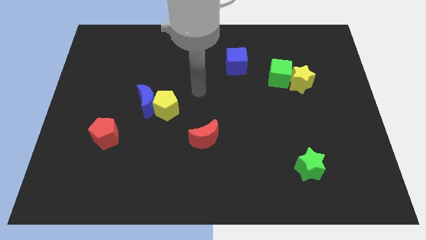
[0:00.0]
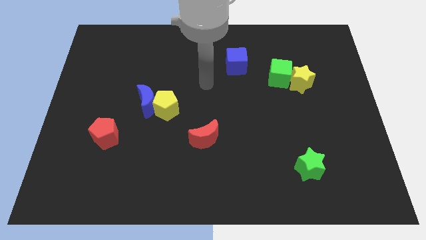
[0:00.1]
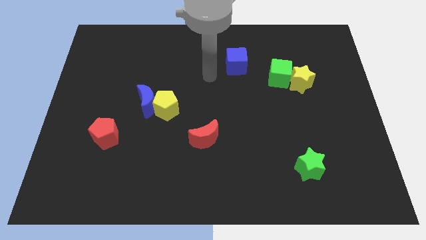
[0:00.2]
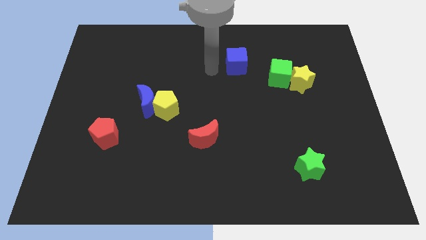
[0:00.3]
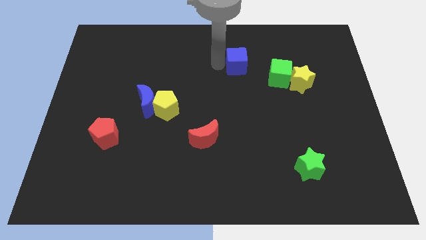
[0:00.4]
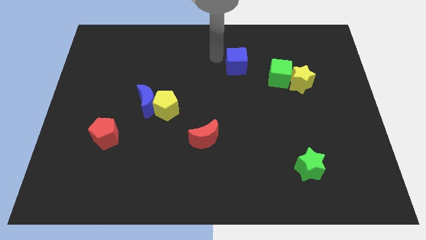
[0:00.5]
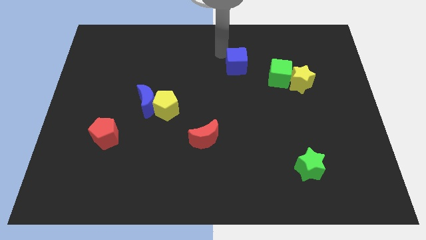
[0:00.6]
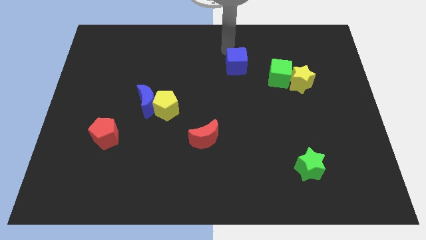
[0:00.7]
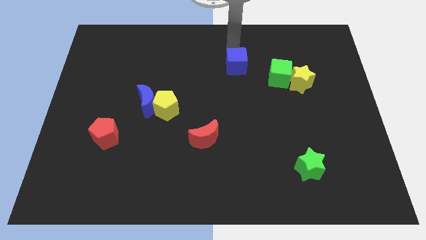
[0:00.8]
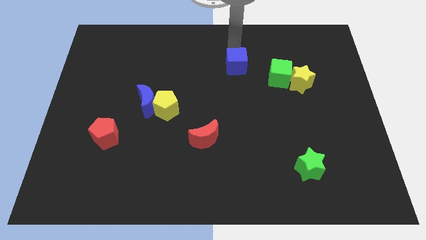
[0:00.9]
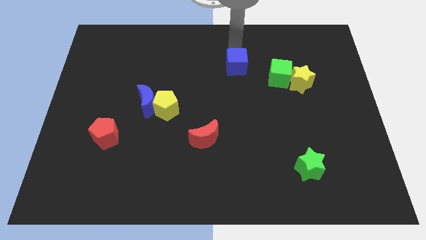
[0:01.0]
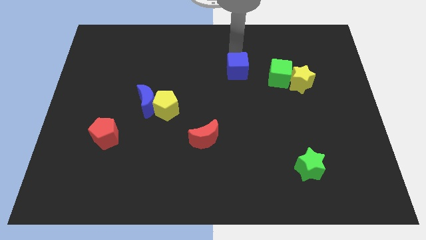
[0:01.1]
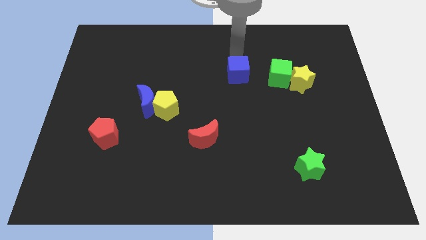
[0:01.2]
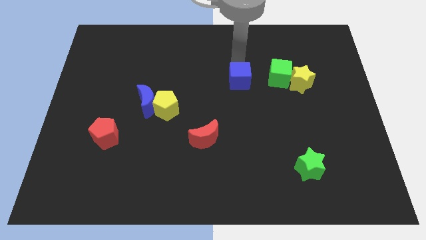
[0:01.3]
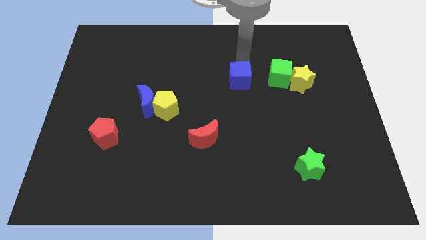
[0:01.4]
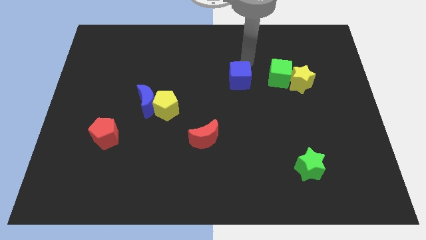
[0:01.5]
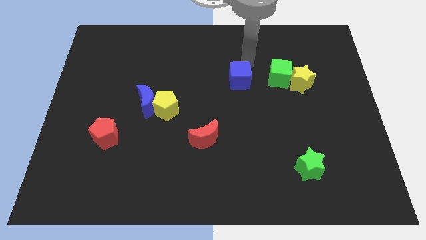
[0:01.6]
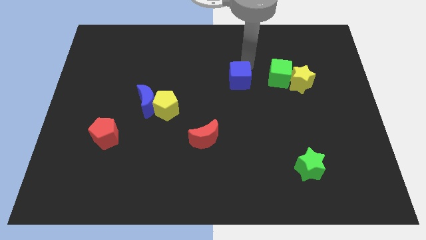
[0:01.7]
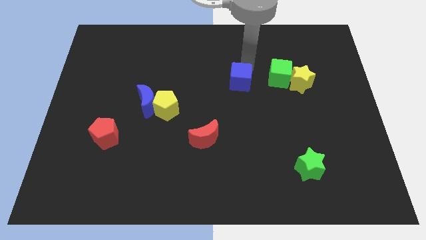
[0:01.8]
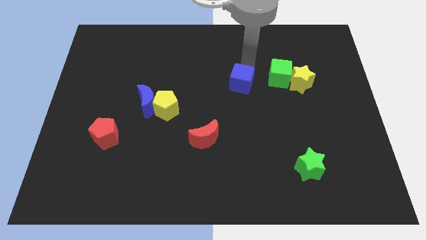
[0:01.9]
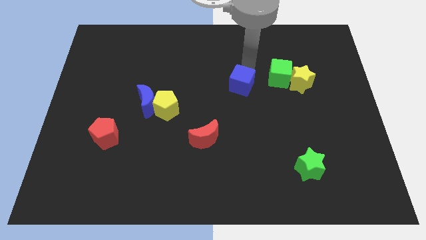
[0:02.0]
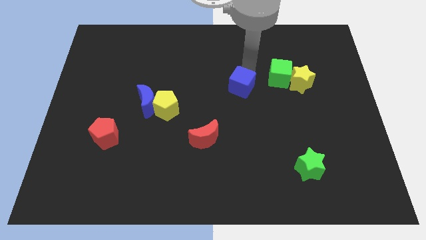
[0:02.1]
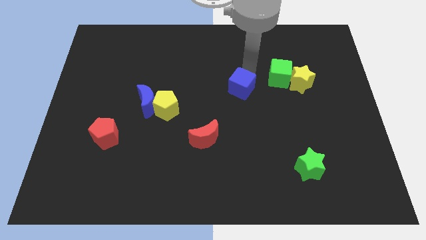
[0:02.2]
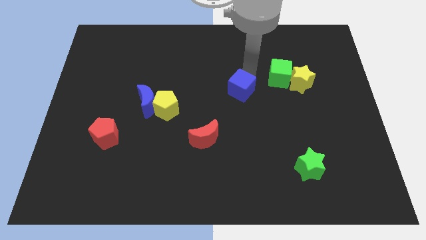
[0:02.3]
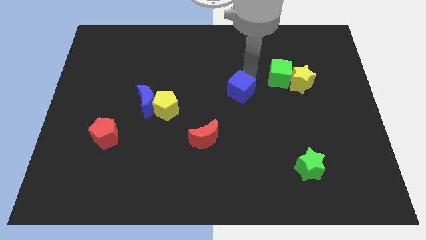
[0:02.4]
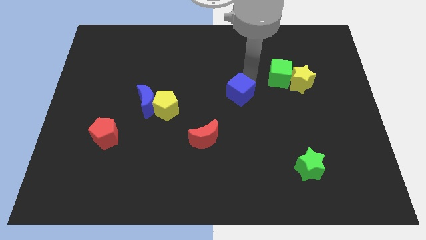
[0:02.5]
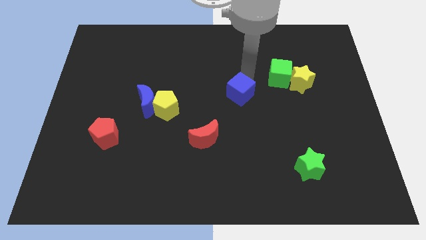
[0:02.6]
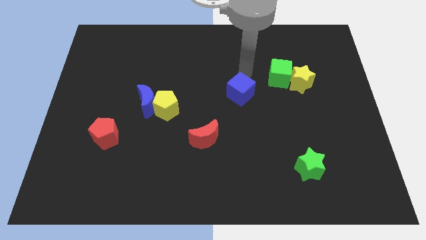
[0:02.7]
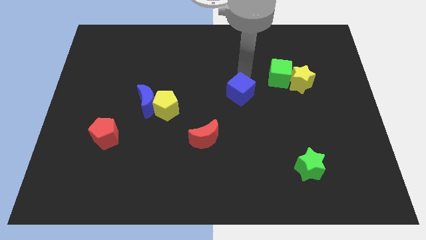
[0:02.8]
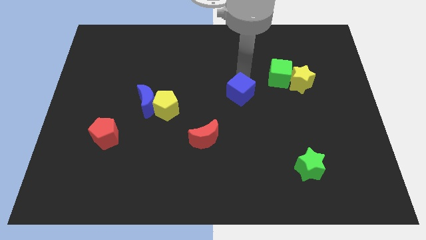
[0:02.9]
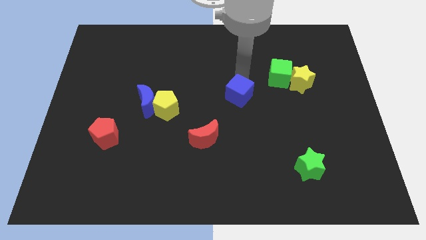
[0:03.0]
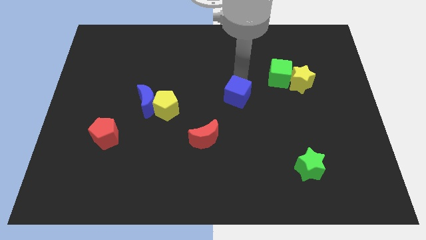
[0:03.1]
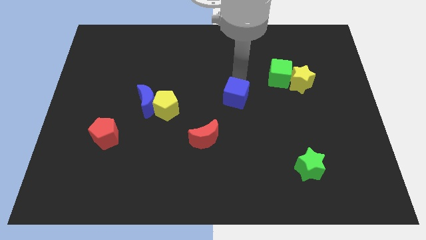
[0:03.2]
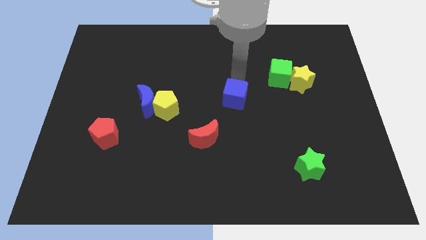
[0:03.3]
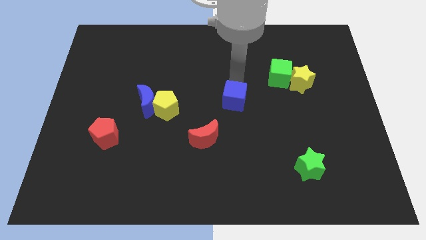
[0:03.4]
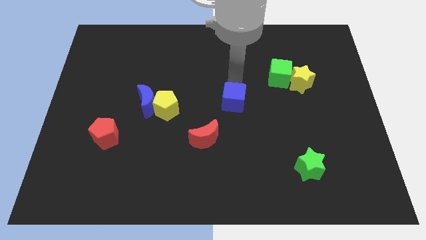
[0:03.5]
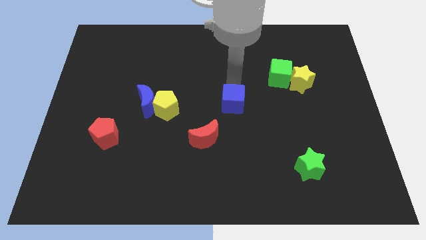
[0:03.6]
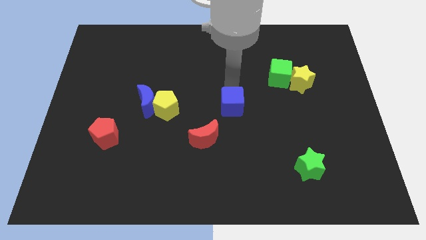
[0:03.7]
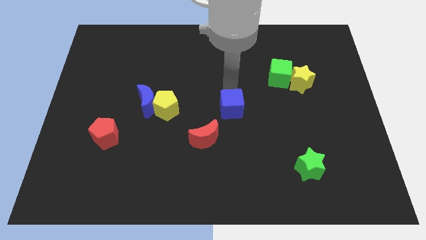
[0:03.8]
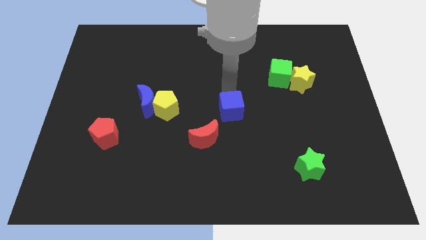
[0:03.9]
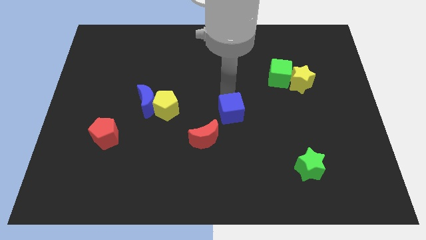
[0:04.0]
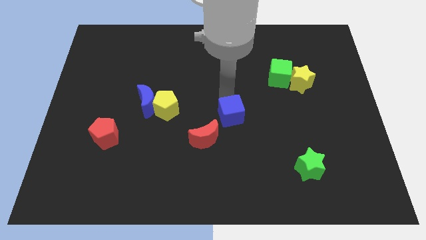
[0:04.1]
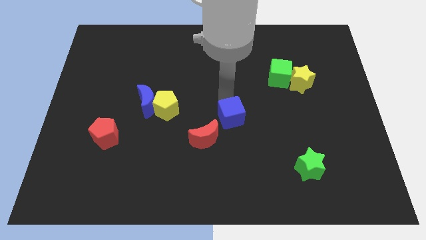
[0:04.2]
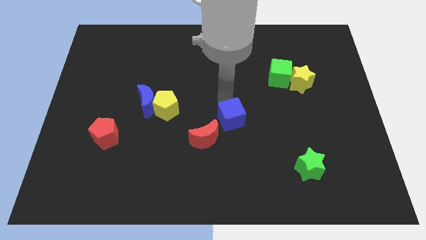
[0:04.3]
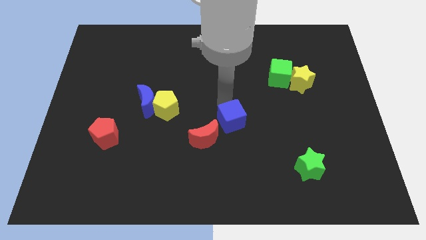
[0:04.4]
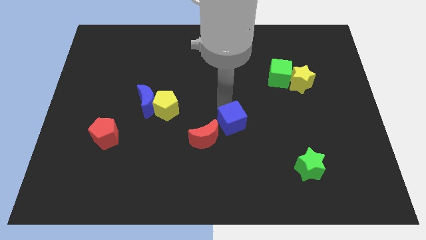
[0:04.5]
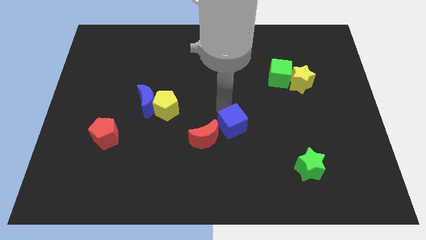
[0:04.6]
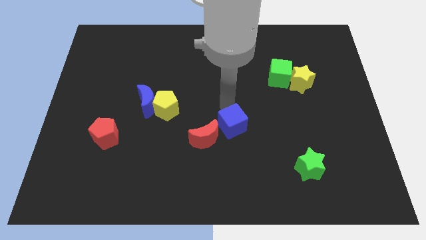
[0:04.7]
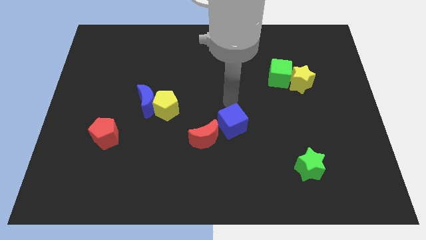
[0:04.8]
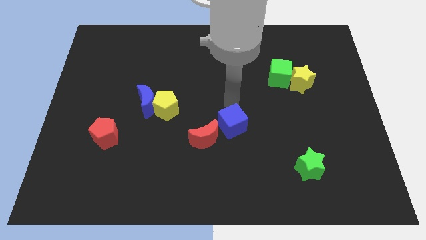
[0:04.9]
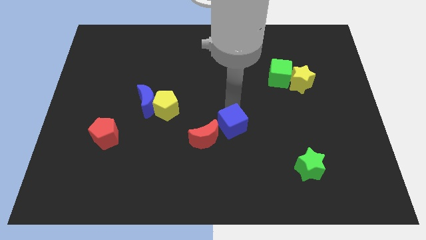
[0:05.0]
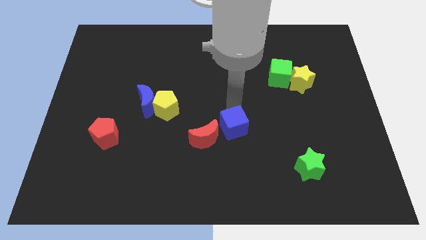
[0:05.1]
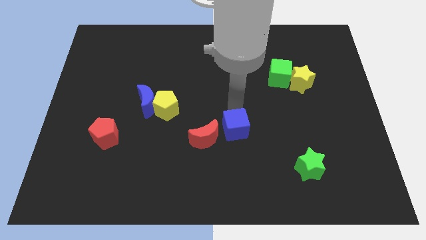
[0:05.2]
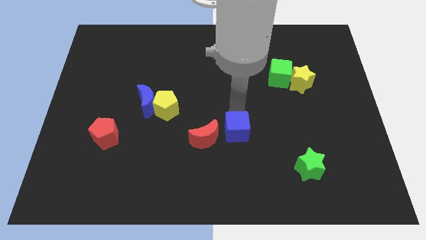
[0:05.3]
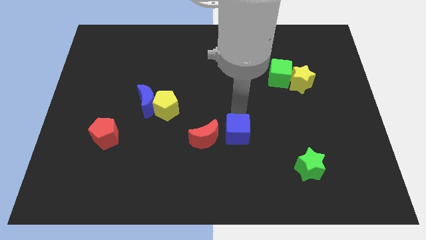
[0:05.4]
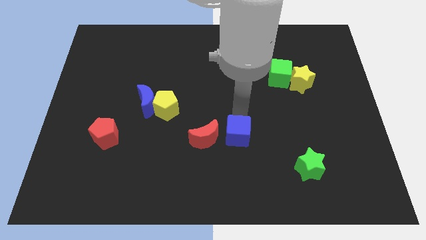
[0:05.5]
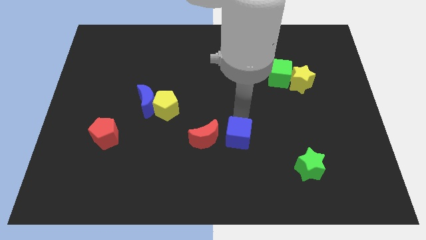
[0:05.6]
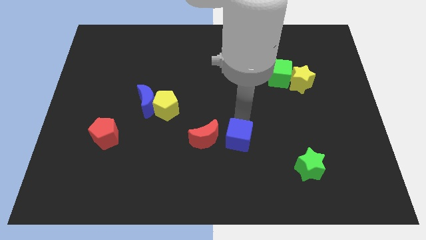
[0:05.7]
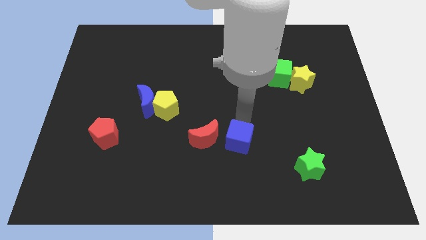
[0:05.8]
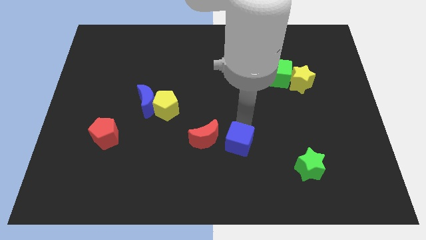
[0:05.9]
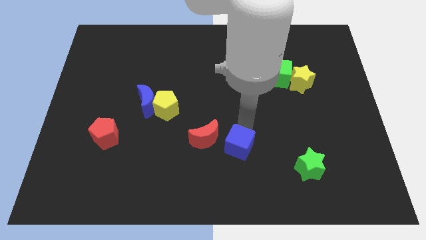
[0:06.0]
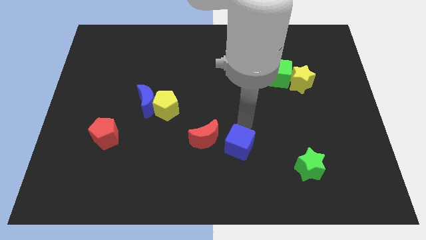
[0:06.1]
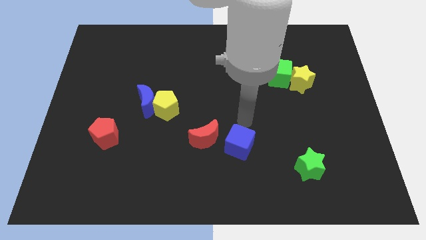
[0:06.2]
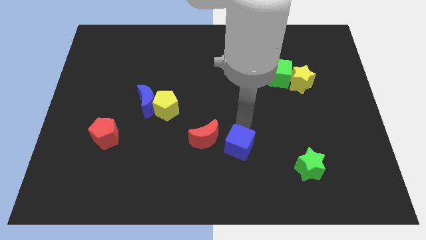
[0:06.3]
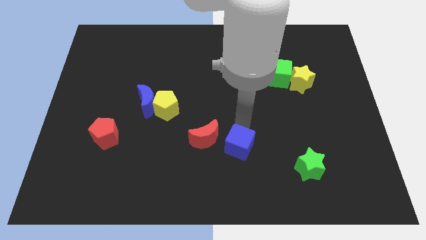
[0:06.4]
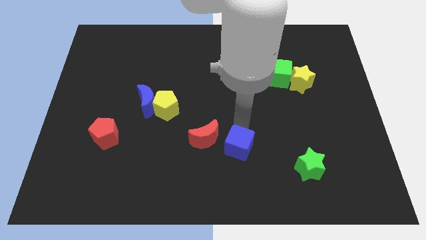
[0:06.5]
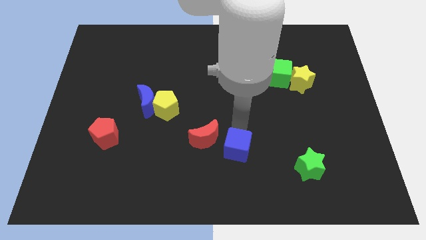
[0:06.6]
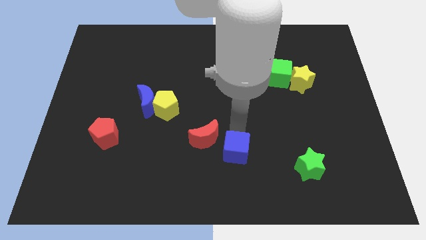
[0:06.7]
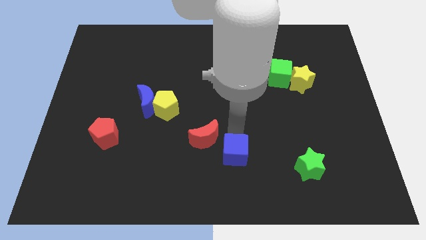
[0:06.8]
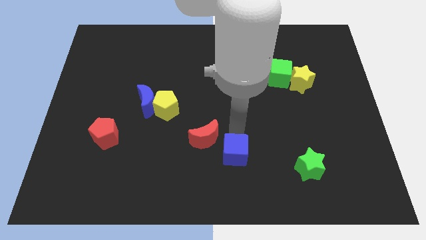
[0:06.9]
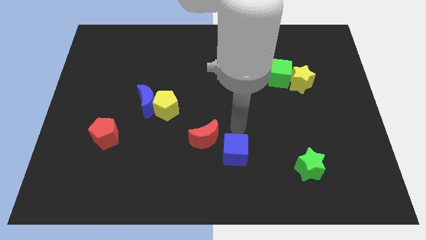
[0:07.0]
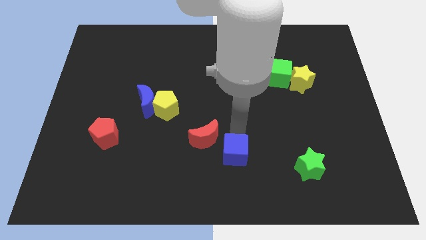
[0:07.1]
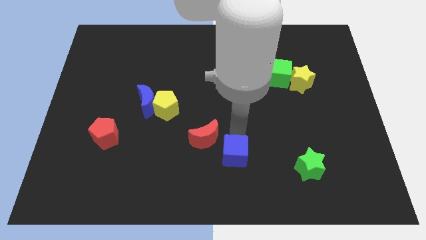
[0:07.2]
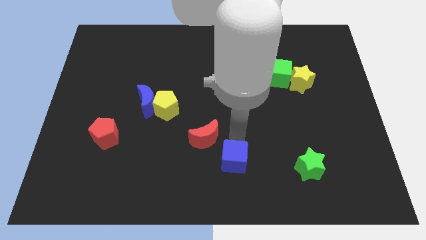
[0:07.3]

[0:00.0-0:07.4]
push the blue cube to the bottom
